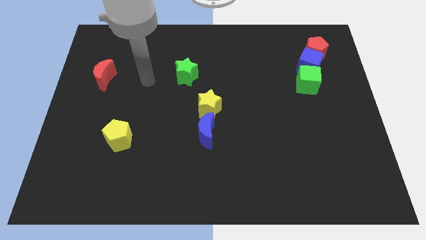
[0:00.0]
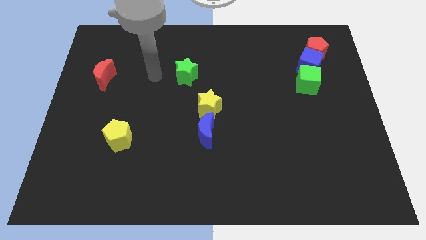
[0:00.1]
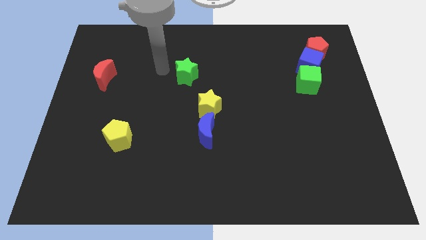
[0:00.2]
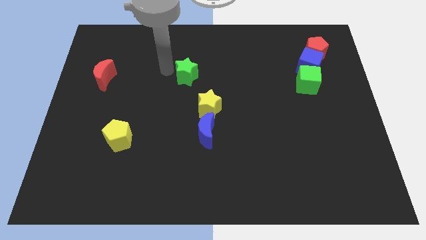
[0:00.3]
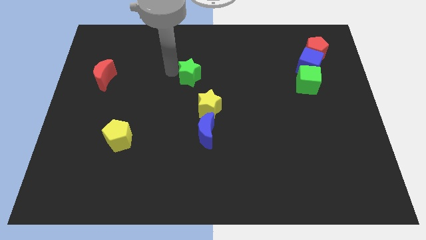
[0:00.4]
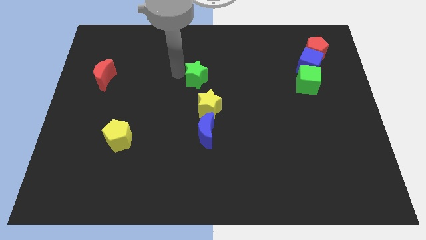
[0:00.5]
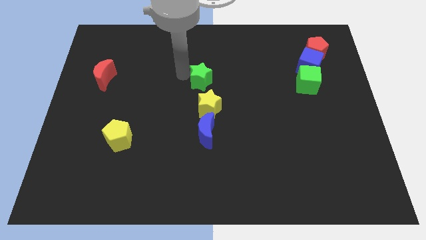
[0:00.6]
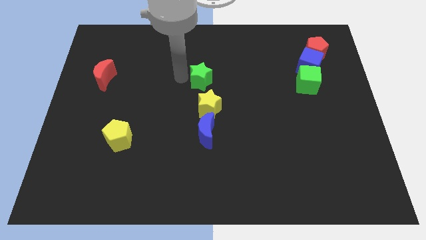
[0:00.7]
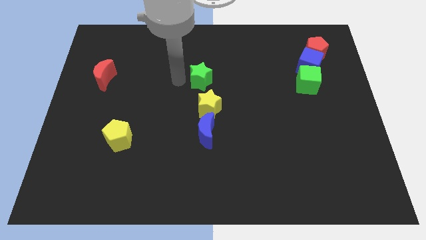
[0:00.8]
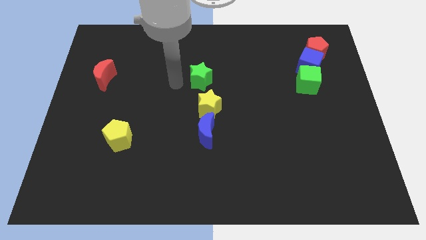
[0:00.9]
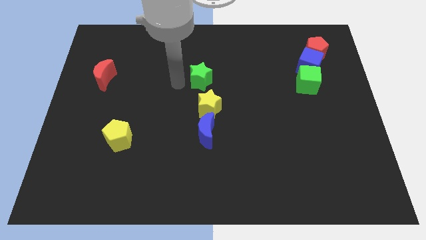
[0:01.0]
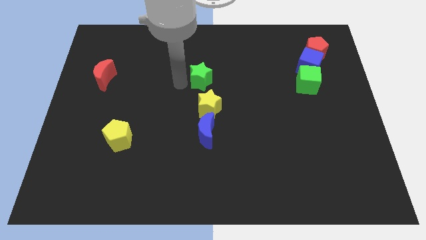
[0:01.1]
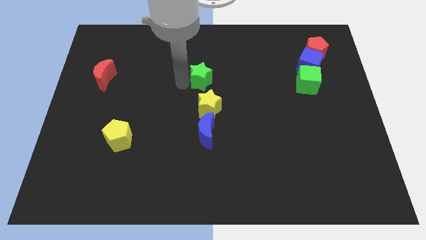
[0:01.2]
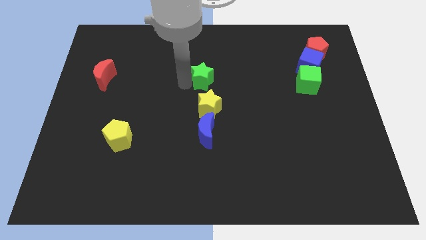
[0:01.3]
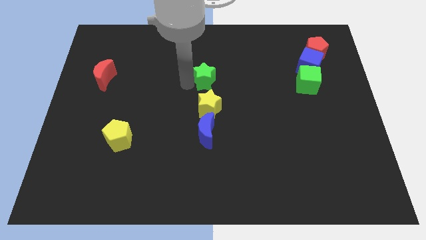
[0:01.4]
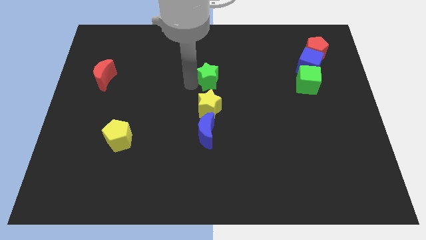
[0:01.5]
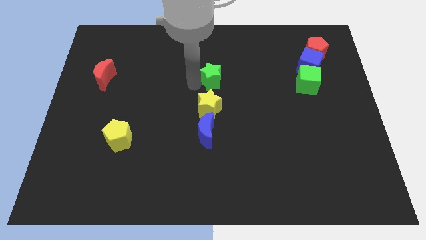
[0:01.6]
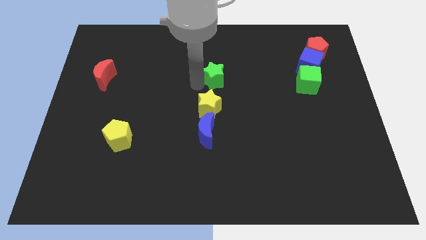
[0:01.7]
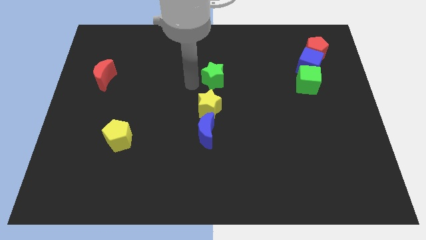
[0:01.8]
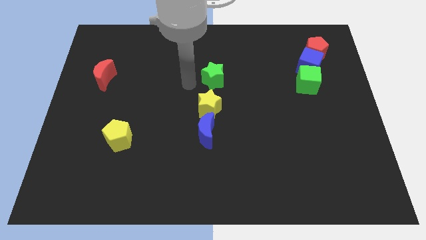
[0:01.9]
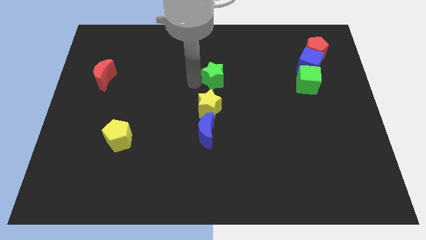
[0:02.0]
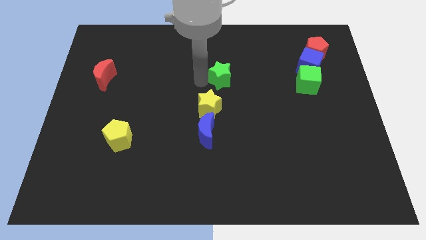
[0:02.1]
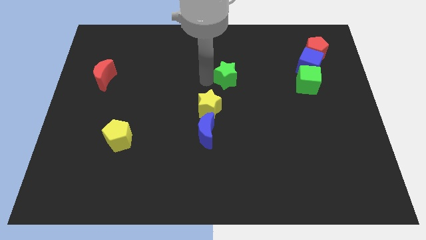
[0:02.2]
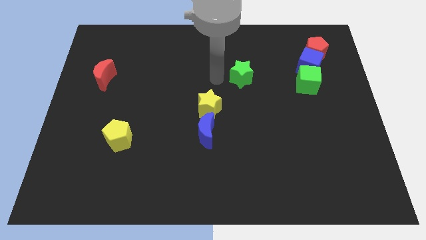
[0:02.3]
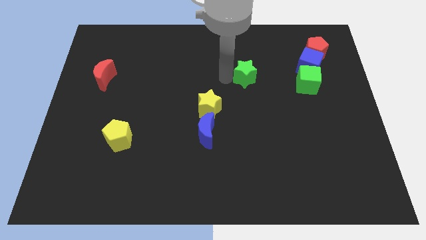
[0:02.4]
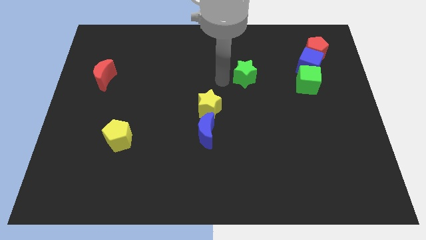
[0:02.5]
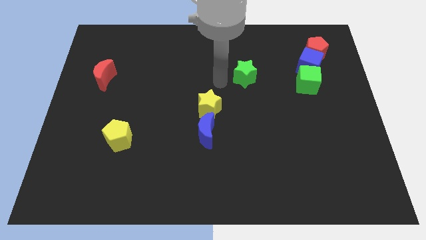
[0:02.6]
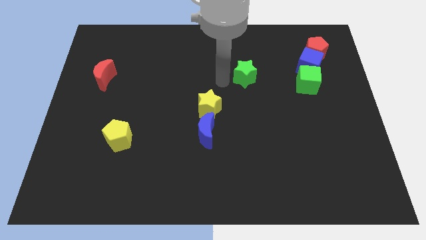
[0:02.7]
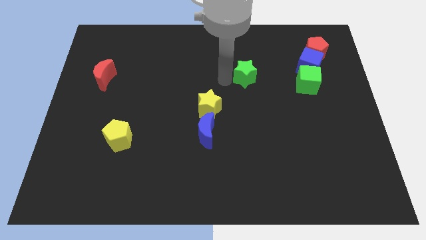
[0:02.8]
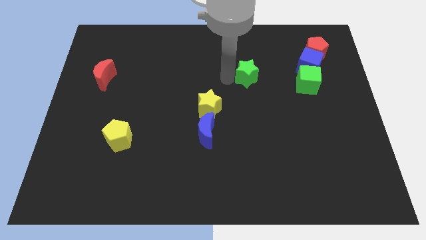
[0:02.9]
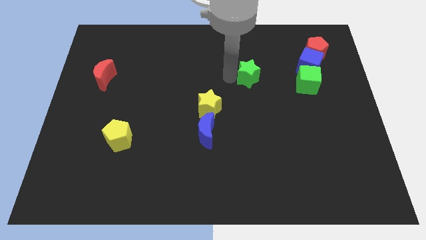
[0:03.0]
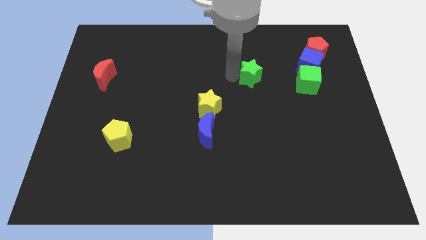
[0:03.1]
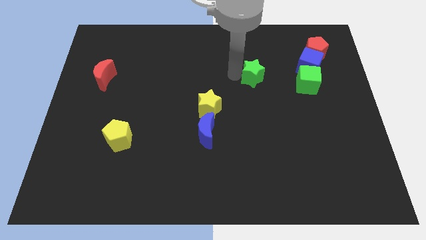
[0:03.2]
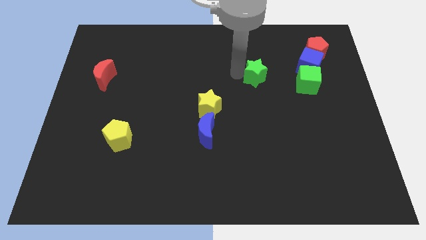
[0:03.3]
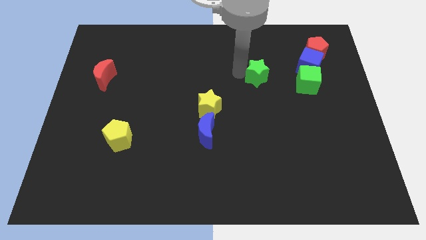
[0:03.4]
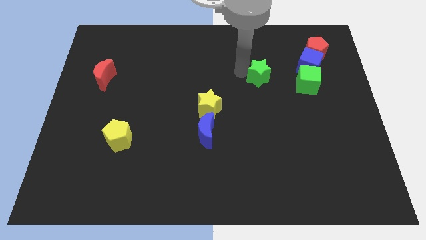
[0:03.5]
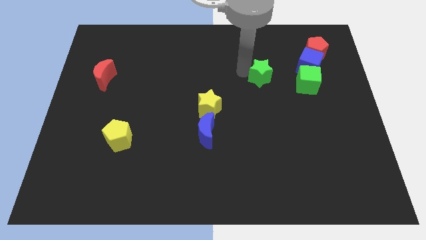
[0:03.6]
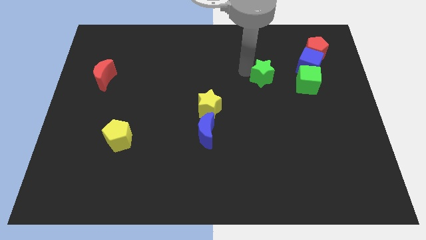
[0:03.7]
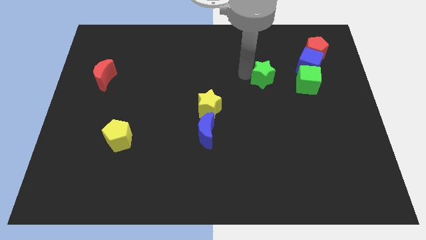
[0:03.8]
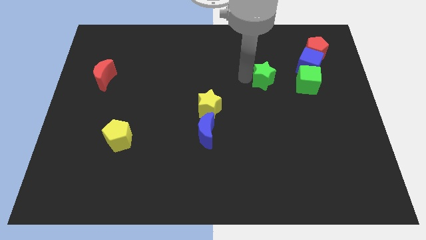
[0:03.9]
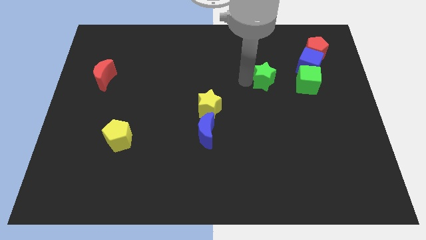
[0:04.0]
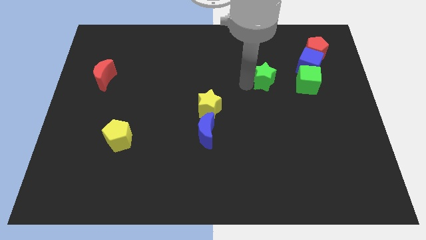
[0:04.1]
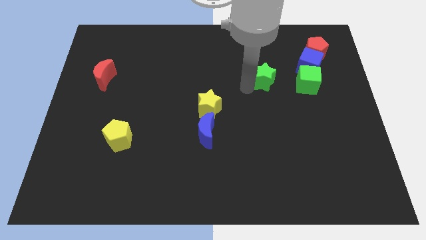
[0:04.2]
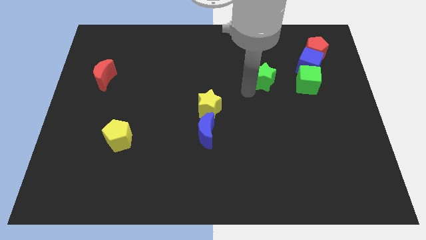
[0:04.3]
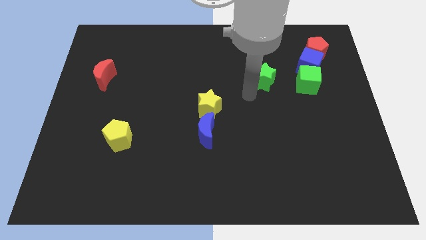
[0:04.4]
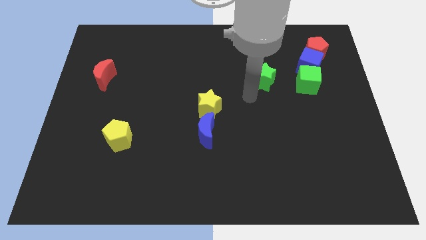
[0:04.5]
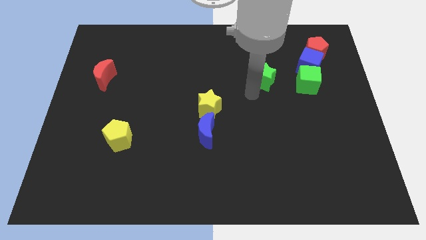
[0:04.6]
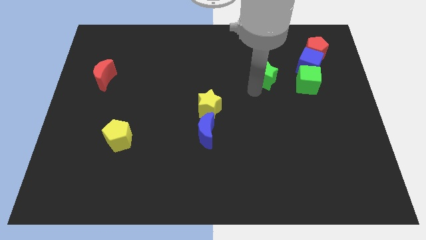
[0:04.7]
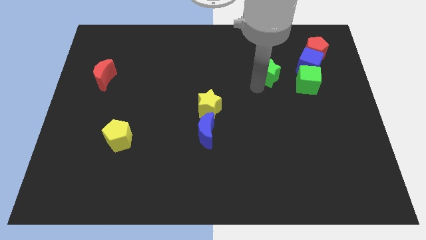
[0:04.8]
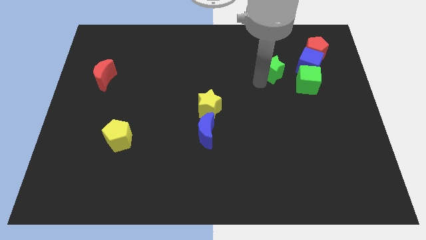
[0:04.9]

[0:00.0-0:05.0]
move the green star to the top left of the green cube

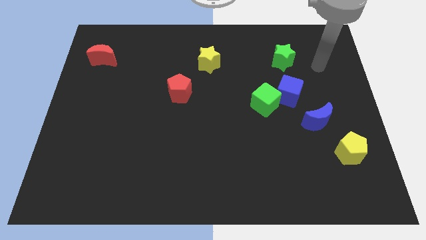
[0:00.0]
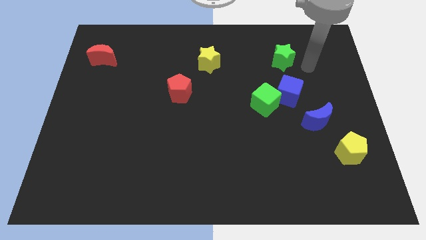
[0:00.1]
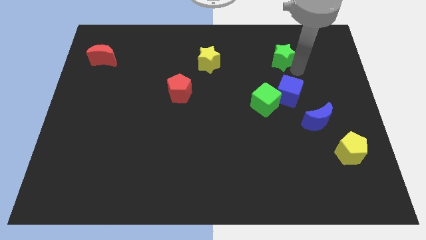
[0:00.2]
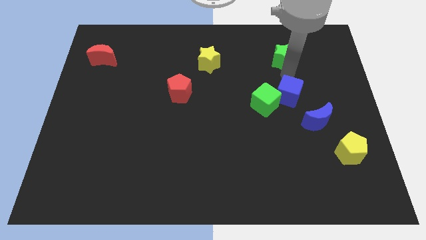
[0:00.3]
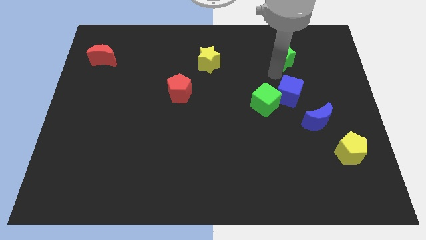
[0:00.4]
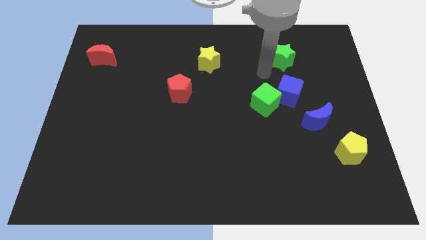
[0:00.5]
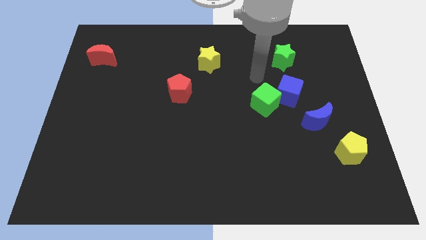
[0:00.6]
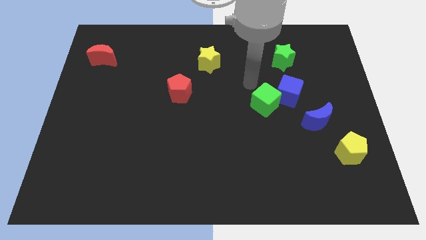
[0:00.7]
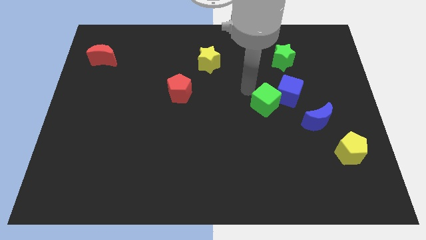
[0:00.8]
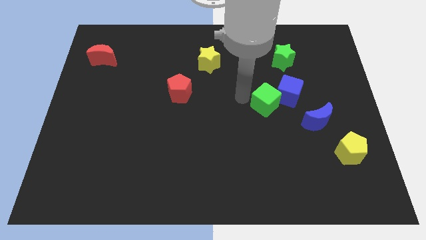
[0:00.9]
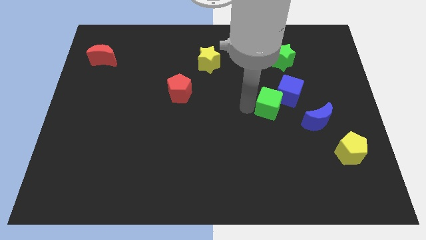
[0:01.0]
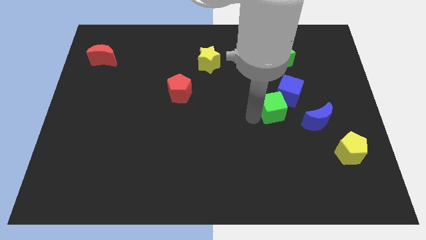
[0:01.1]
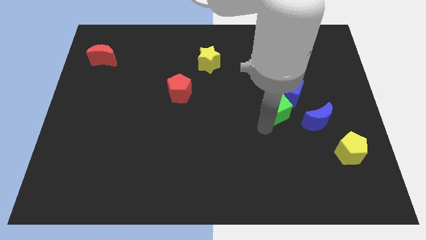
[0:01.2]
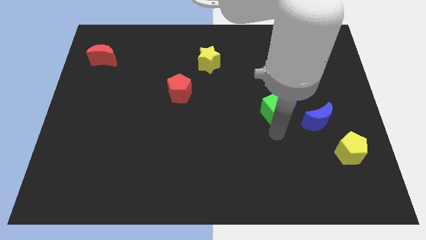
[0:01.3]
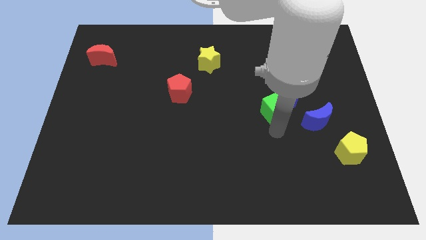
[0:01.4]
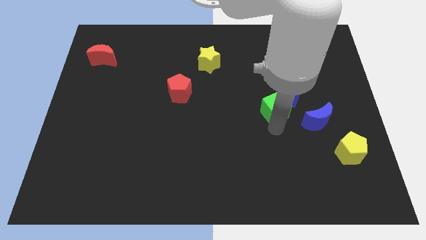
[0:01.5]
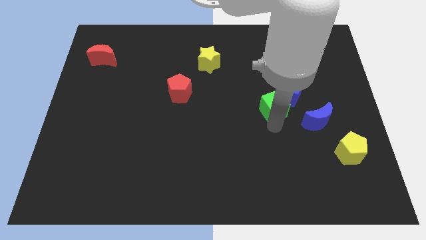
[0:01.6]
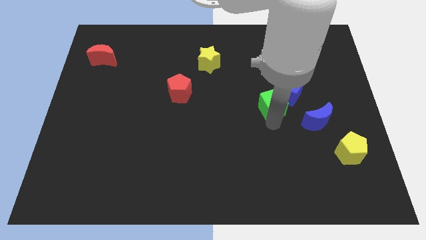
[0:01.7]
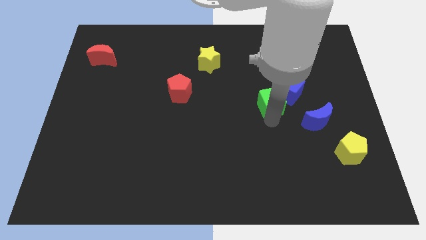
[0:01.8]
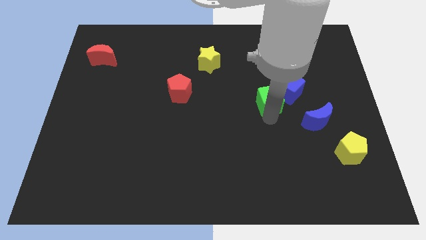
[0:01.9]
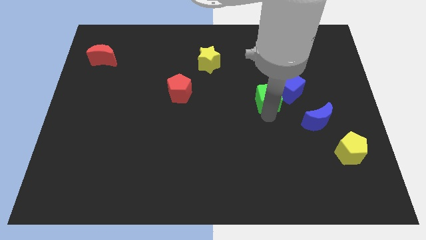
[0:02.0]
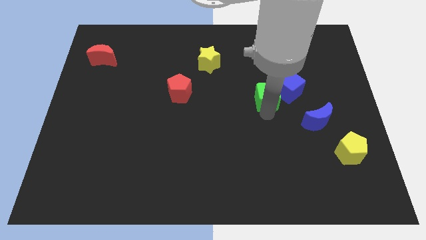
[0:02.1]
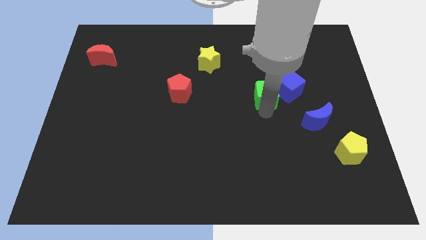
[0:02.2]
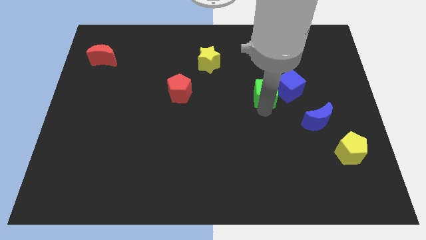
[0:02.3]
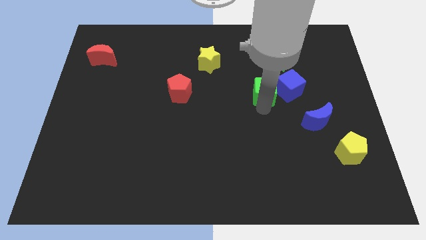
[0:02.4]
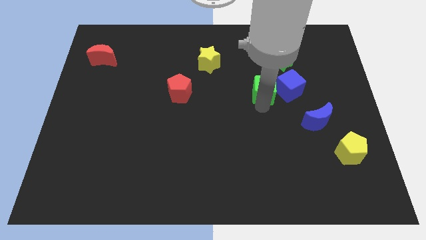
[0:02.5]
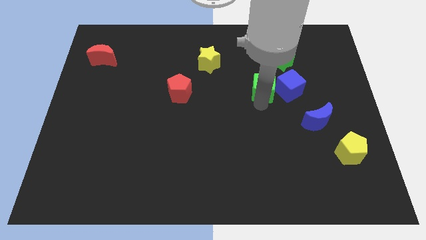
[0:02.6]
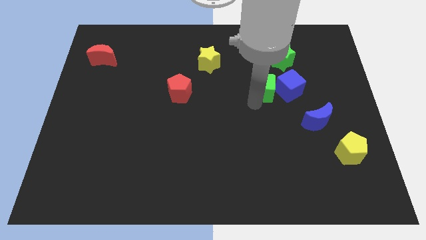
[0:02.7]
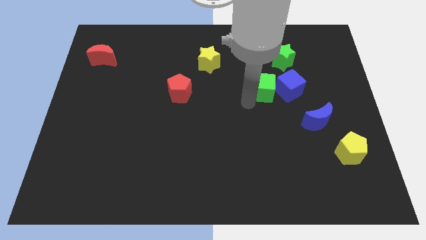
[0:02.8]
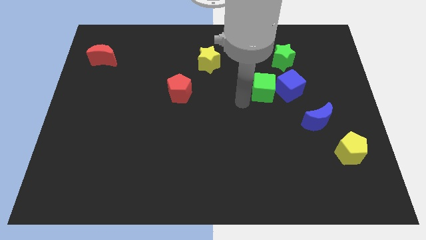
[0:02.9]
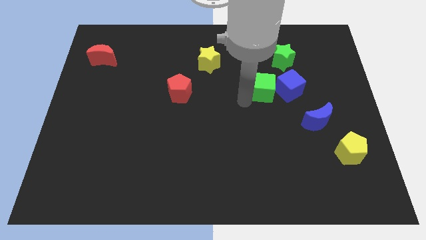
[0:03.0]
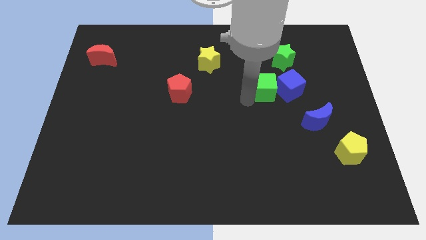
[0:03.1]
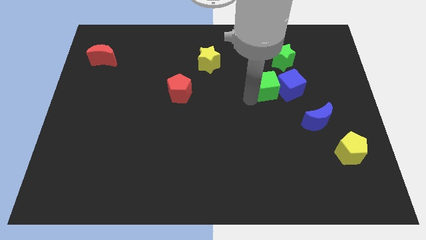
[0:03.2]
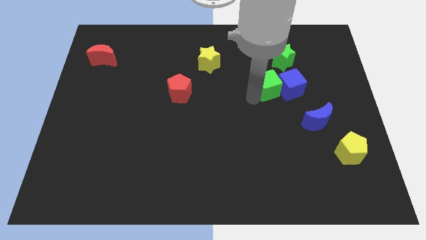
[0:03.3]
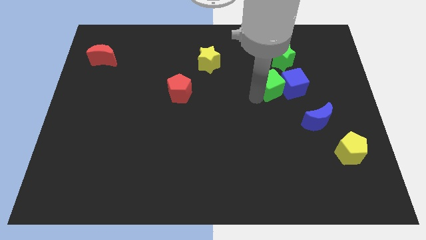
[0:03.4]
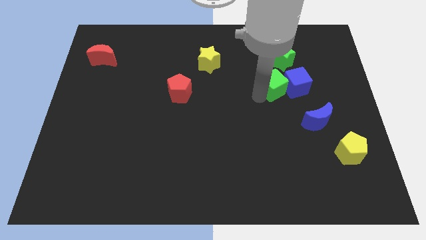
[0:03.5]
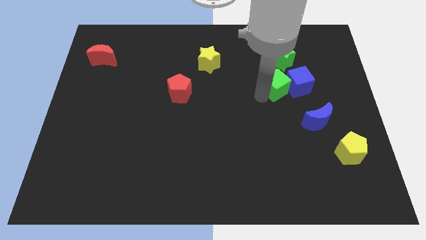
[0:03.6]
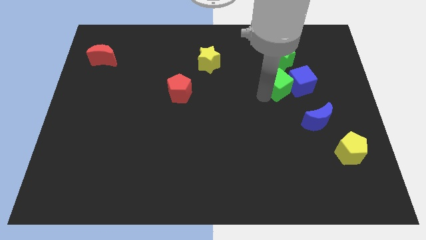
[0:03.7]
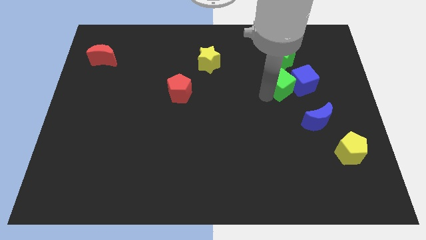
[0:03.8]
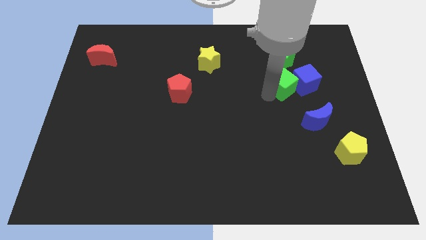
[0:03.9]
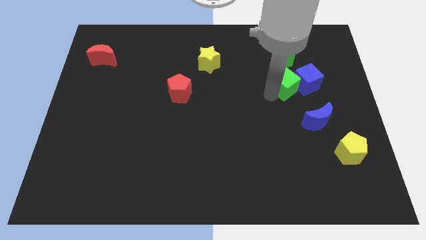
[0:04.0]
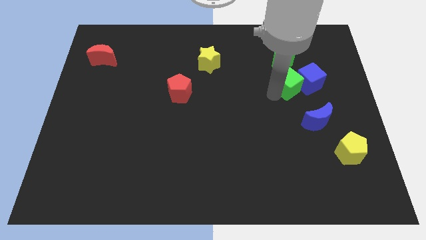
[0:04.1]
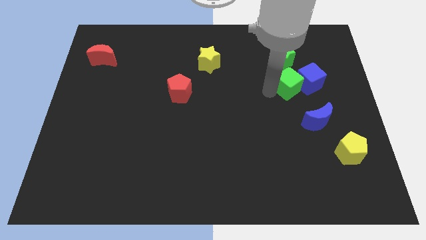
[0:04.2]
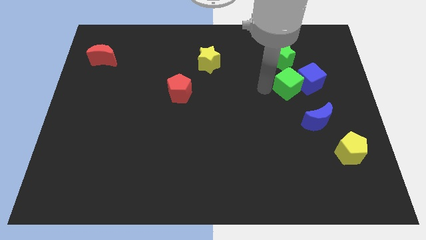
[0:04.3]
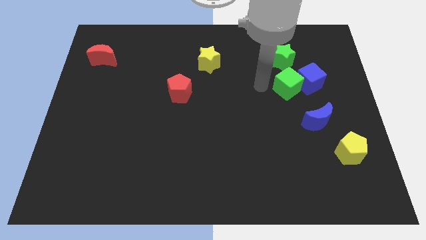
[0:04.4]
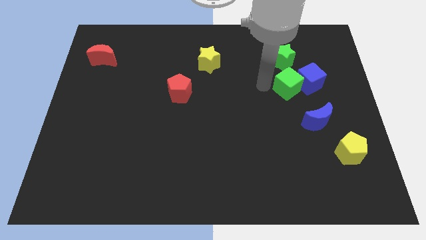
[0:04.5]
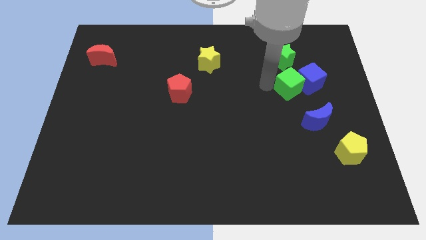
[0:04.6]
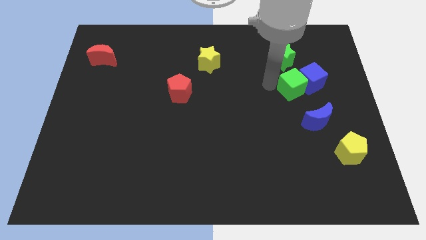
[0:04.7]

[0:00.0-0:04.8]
put the green cube above the blue moon
